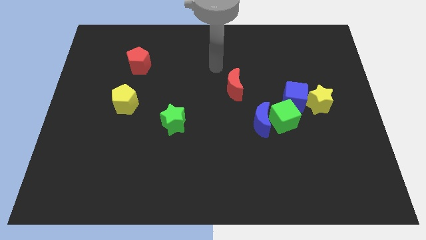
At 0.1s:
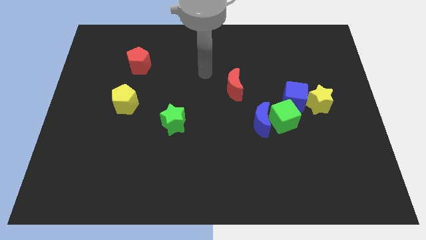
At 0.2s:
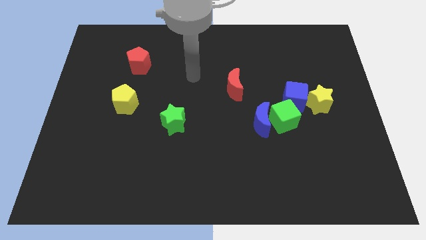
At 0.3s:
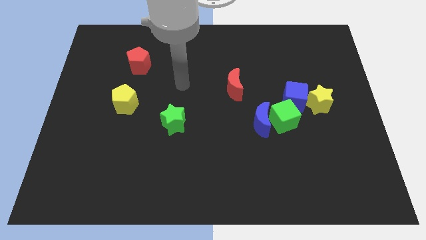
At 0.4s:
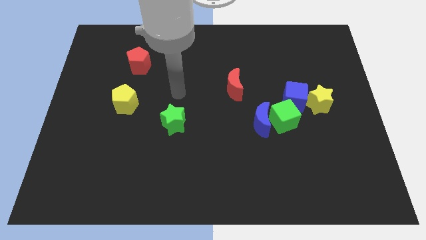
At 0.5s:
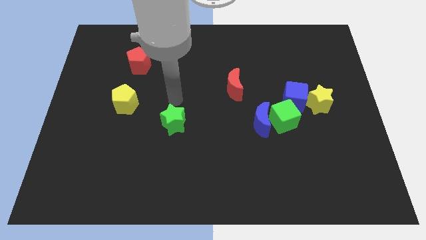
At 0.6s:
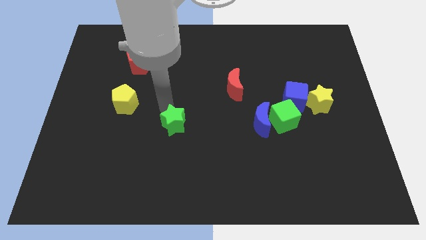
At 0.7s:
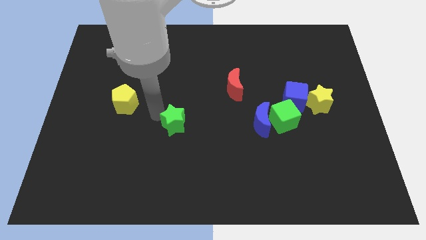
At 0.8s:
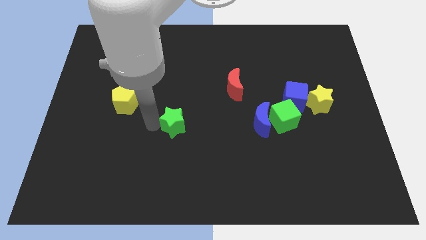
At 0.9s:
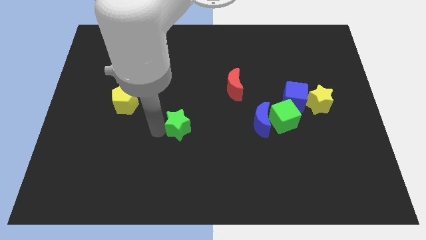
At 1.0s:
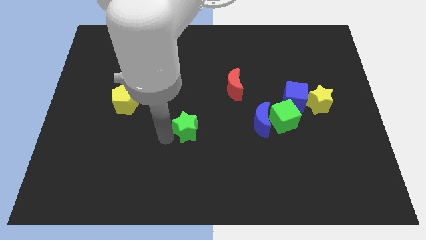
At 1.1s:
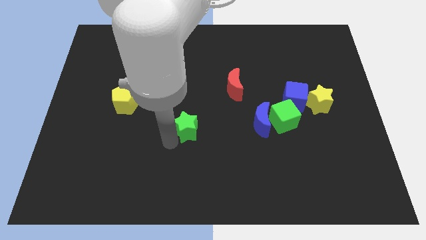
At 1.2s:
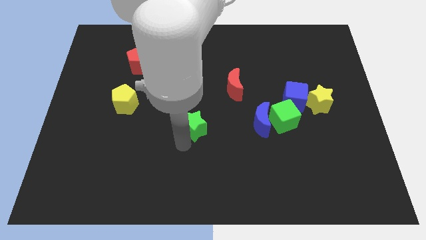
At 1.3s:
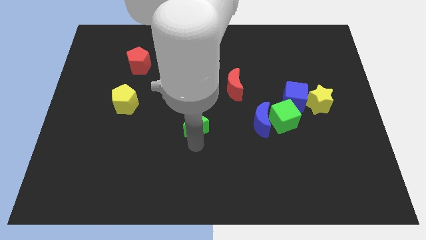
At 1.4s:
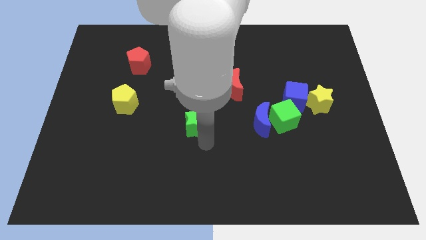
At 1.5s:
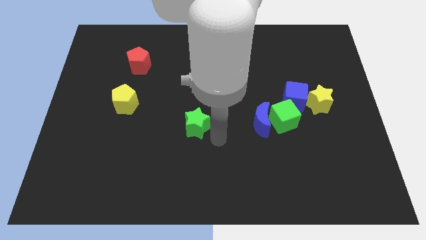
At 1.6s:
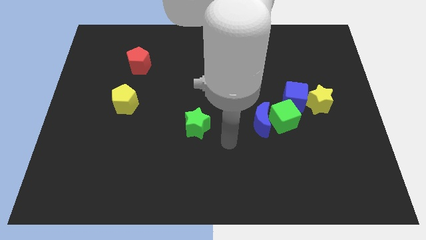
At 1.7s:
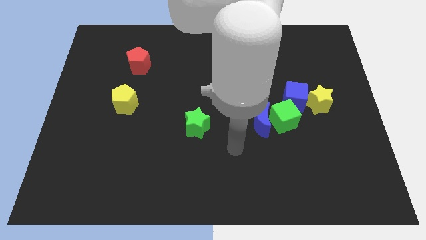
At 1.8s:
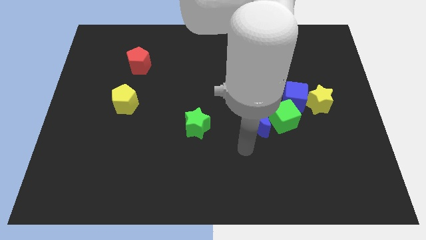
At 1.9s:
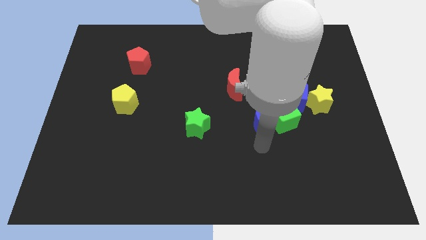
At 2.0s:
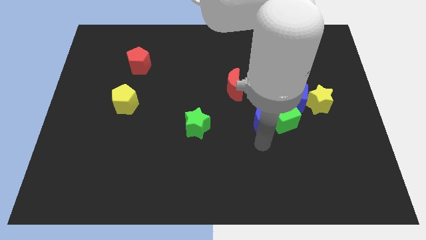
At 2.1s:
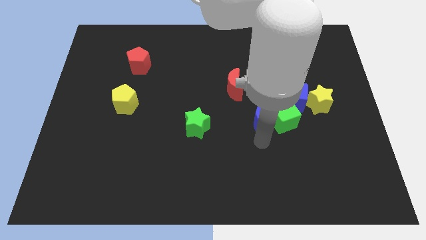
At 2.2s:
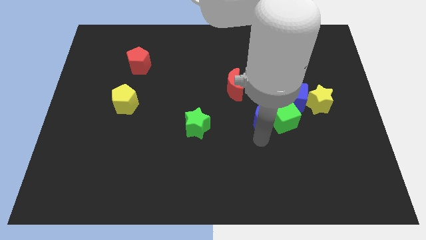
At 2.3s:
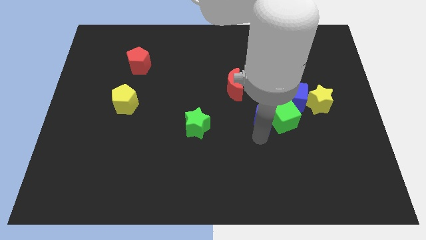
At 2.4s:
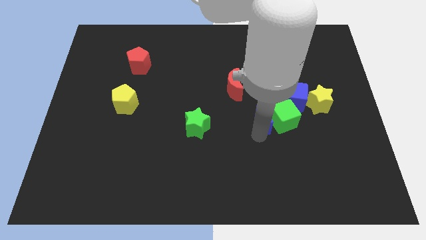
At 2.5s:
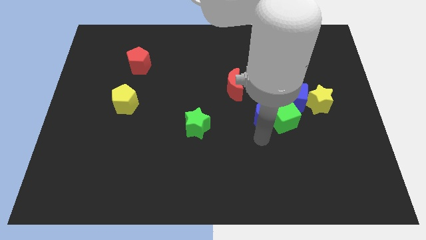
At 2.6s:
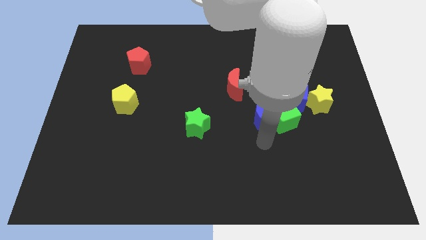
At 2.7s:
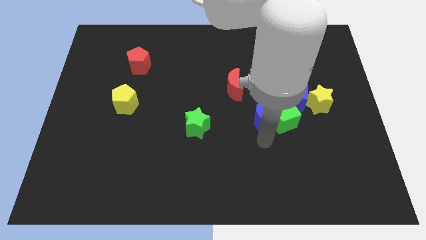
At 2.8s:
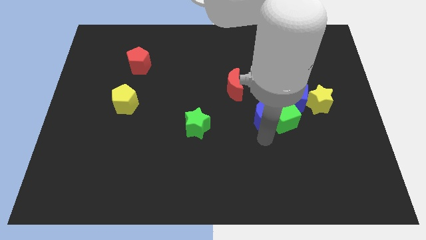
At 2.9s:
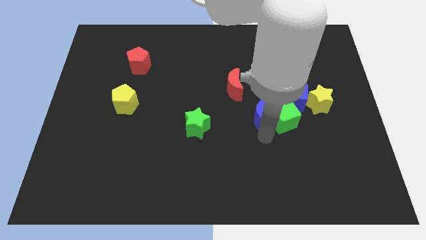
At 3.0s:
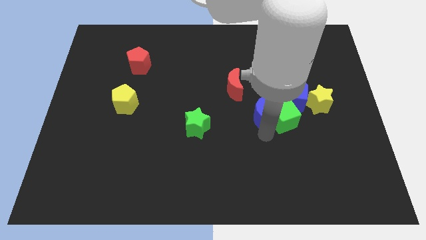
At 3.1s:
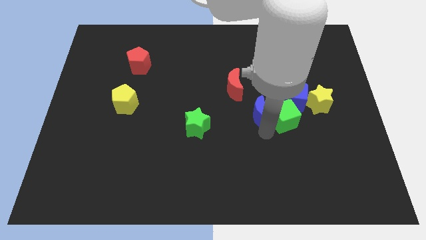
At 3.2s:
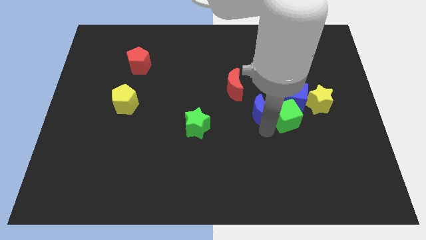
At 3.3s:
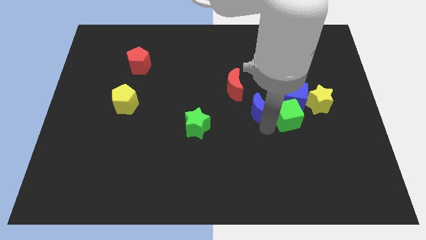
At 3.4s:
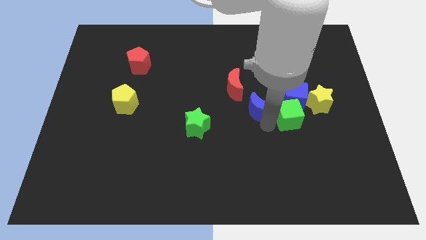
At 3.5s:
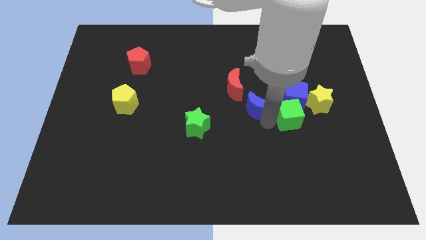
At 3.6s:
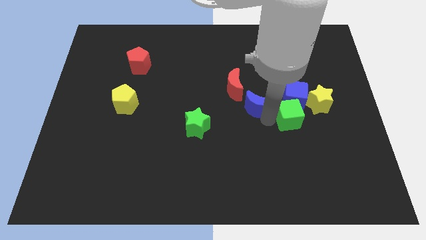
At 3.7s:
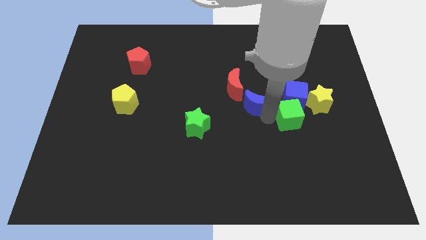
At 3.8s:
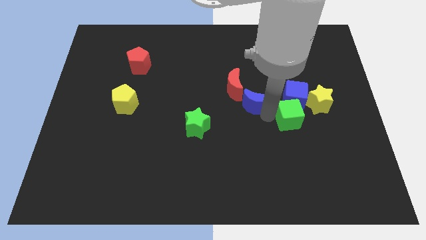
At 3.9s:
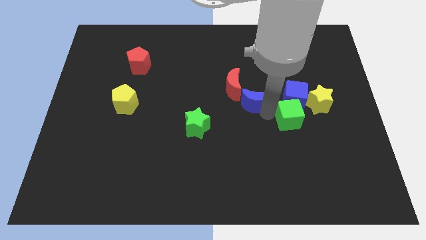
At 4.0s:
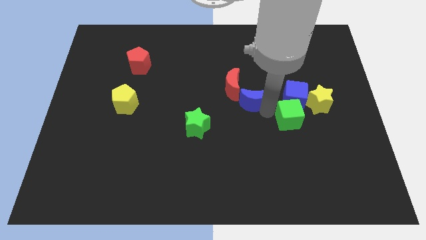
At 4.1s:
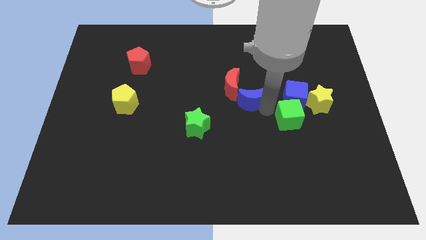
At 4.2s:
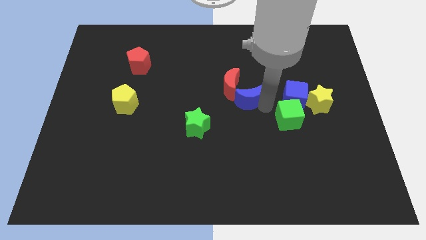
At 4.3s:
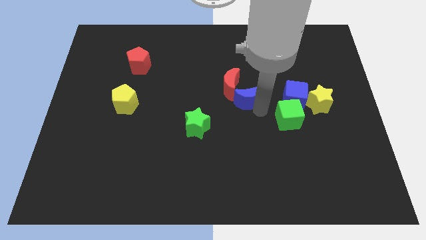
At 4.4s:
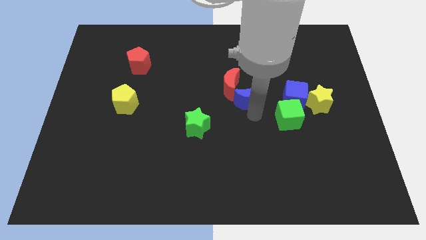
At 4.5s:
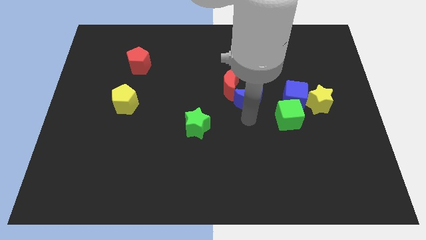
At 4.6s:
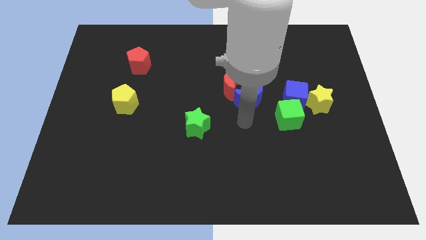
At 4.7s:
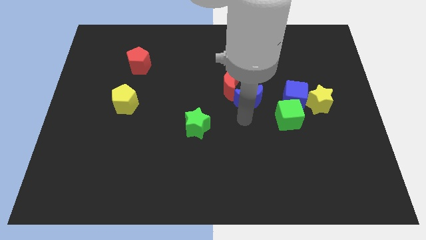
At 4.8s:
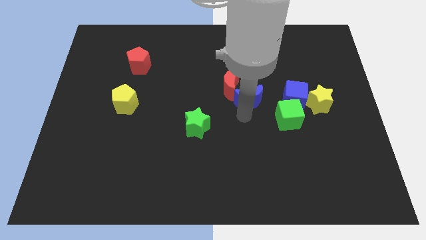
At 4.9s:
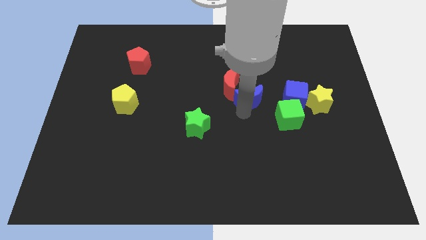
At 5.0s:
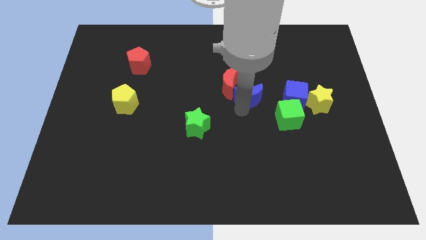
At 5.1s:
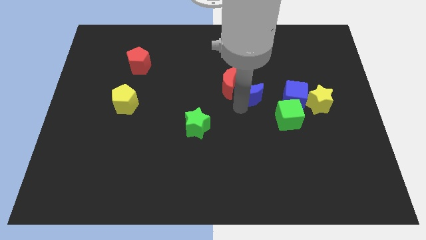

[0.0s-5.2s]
slide the blue moon upwards a bit

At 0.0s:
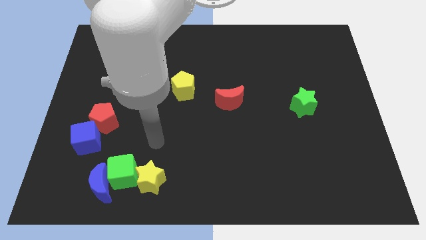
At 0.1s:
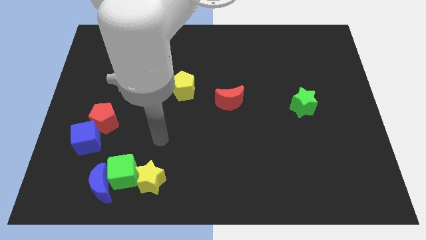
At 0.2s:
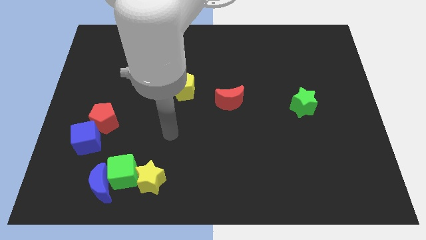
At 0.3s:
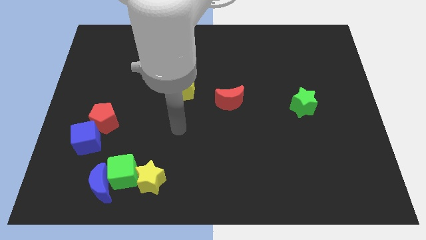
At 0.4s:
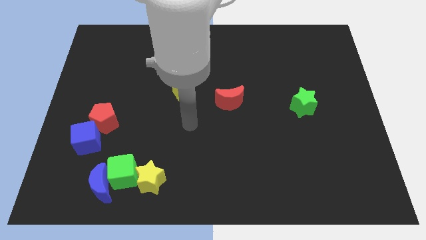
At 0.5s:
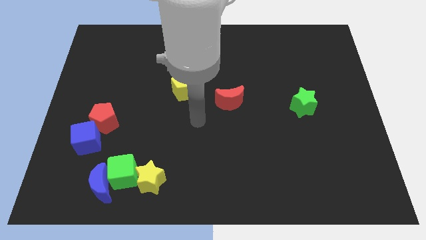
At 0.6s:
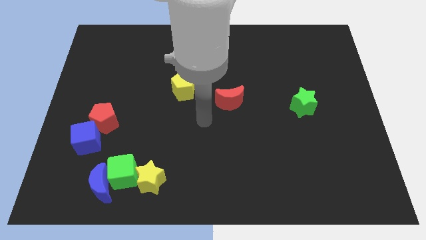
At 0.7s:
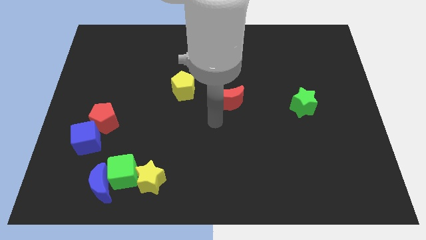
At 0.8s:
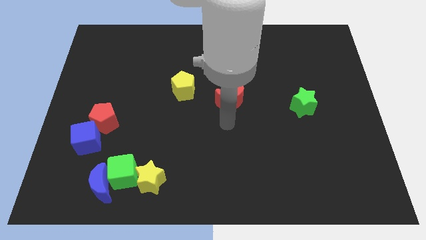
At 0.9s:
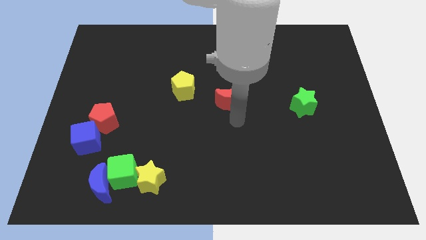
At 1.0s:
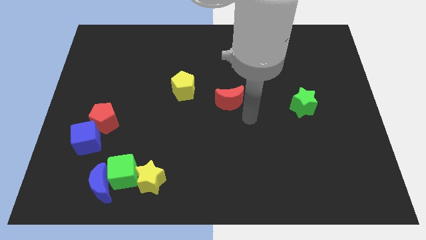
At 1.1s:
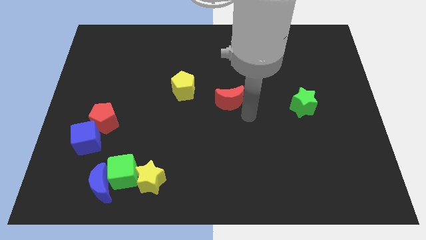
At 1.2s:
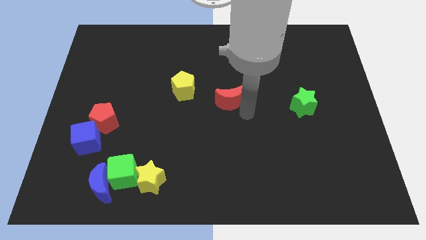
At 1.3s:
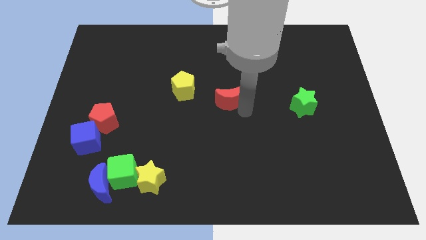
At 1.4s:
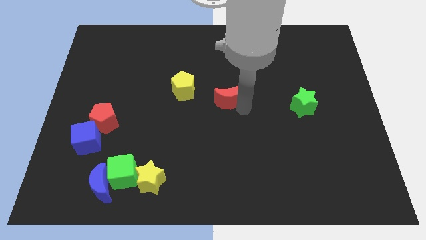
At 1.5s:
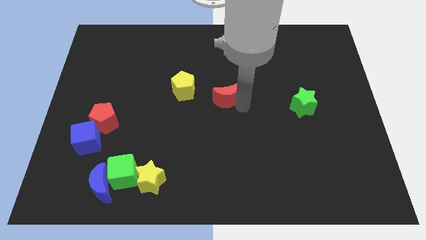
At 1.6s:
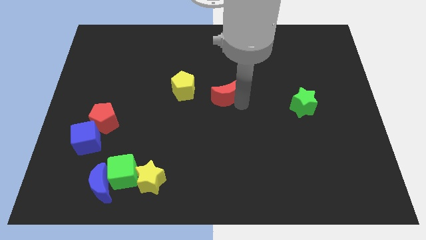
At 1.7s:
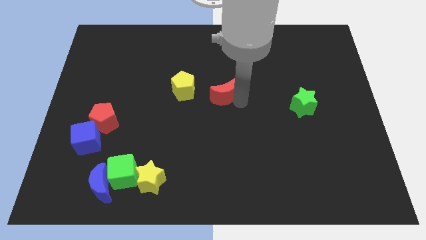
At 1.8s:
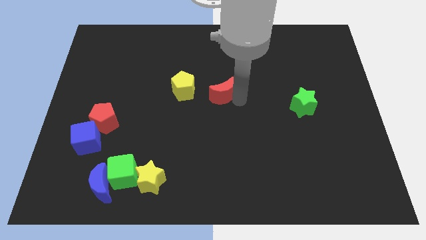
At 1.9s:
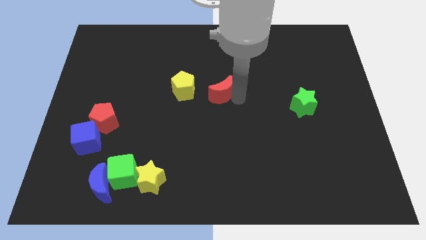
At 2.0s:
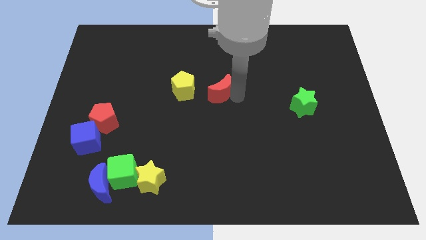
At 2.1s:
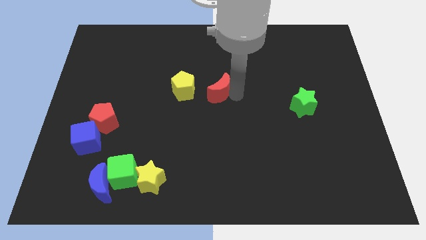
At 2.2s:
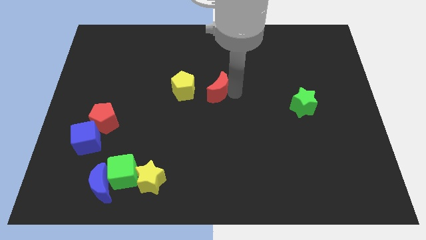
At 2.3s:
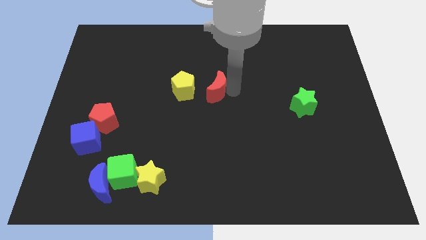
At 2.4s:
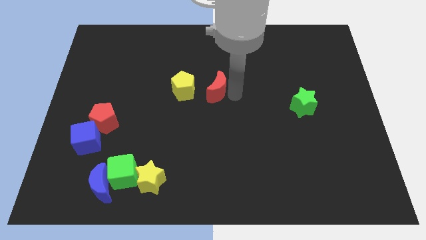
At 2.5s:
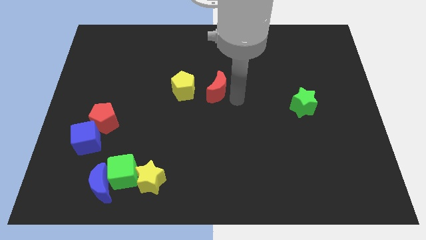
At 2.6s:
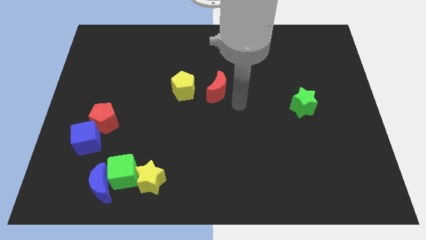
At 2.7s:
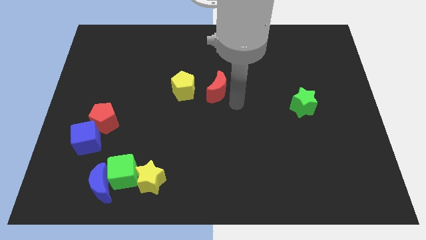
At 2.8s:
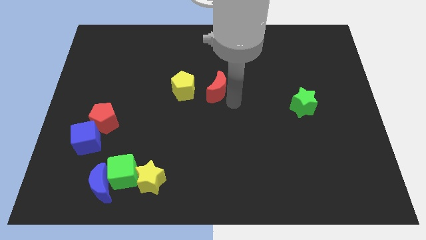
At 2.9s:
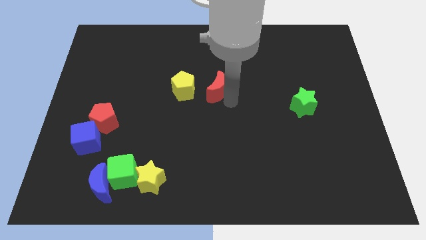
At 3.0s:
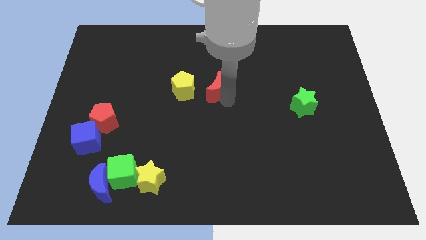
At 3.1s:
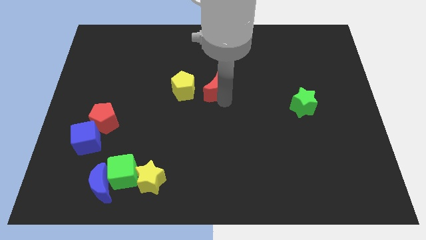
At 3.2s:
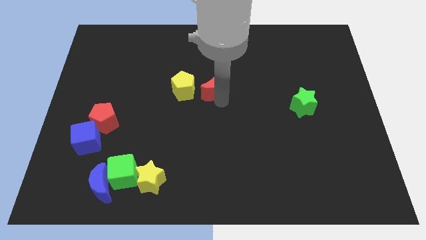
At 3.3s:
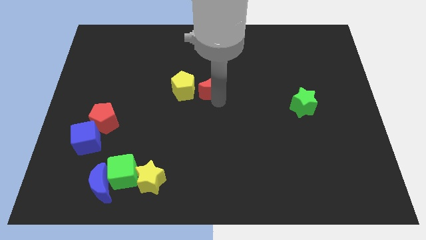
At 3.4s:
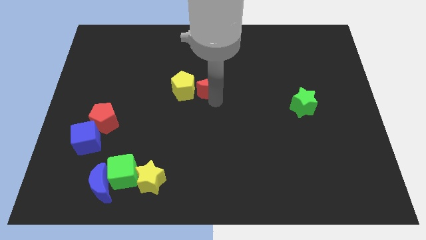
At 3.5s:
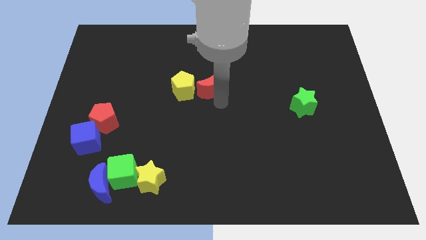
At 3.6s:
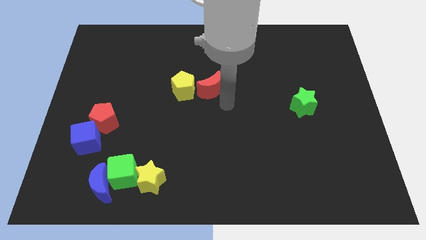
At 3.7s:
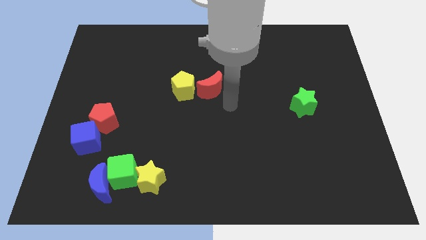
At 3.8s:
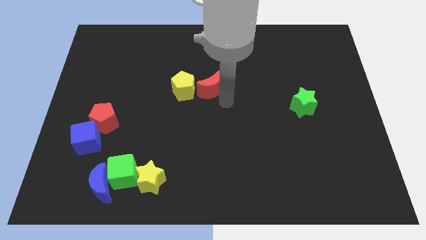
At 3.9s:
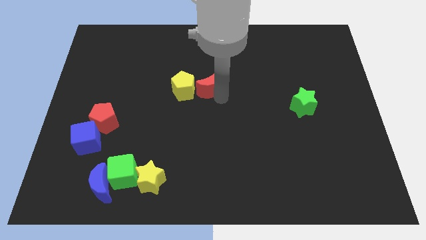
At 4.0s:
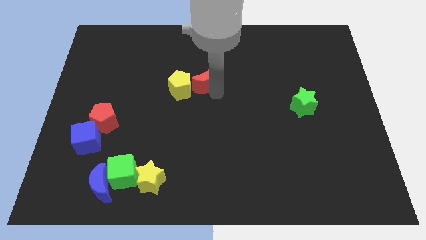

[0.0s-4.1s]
slightly move the red moon up and left
